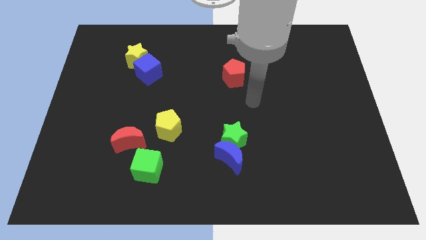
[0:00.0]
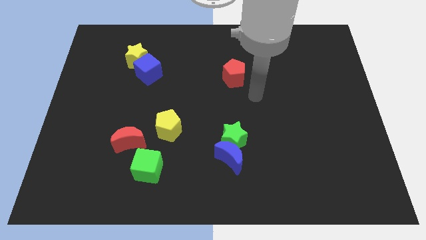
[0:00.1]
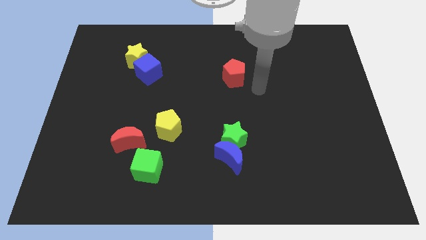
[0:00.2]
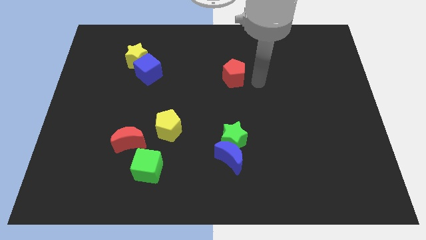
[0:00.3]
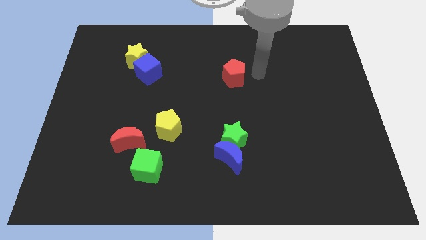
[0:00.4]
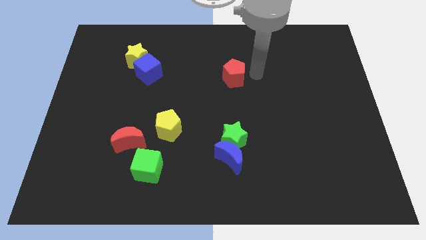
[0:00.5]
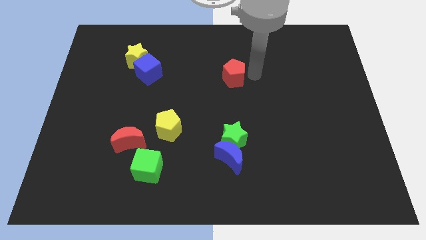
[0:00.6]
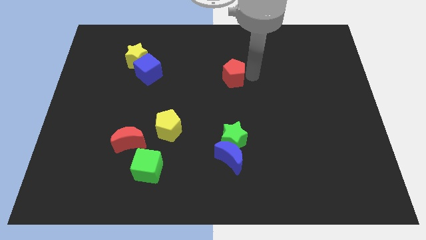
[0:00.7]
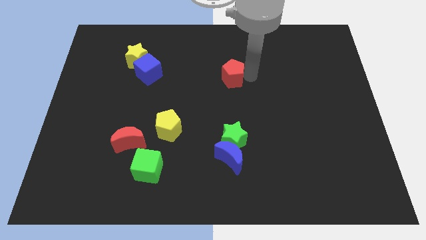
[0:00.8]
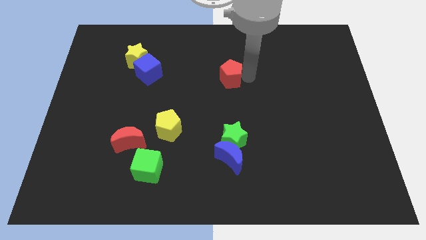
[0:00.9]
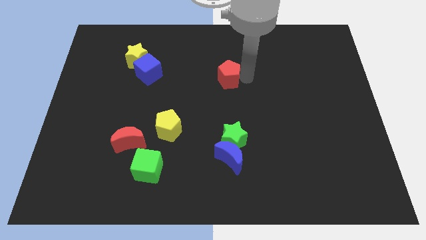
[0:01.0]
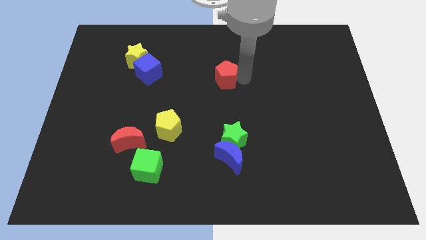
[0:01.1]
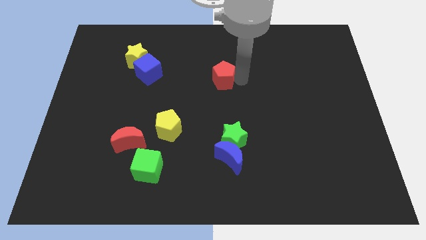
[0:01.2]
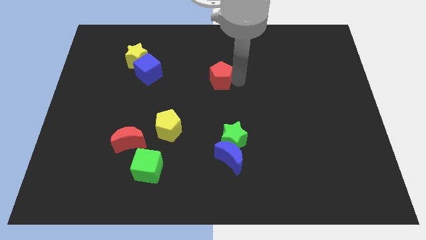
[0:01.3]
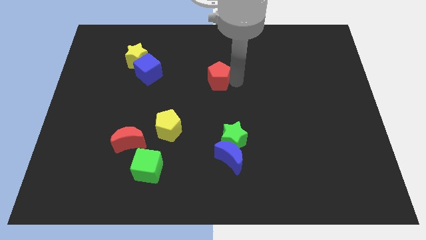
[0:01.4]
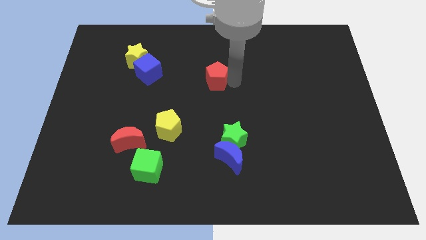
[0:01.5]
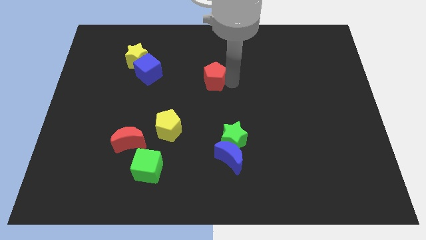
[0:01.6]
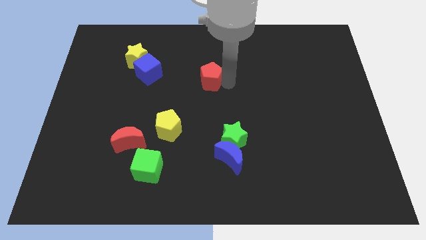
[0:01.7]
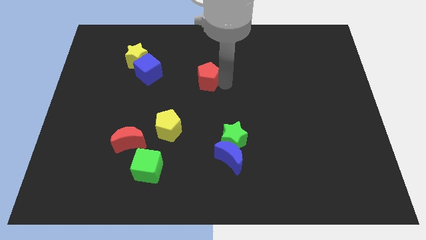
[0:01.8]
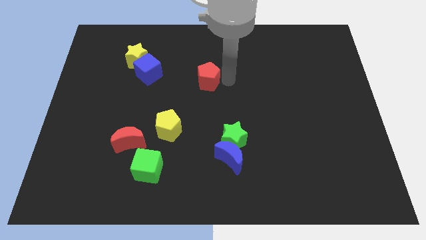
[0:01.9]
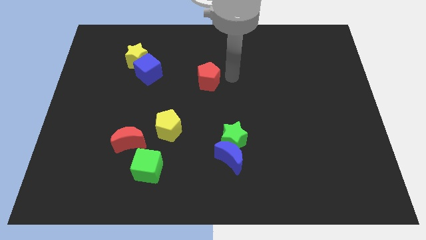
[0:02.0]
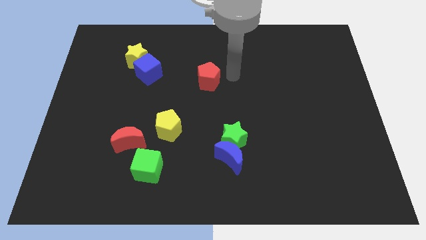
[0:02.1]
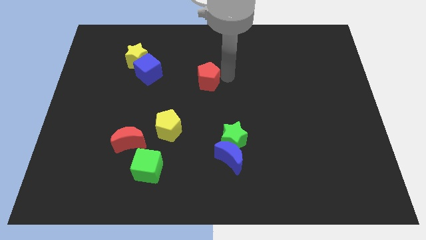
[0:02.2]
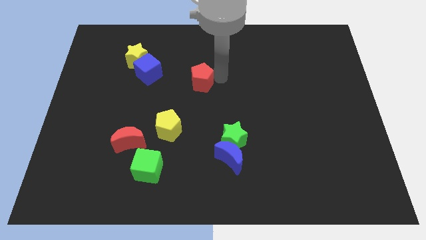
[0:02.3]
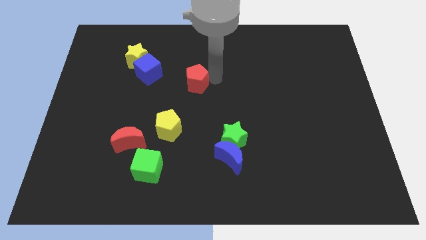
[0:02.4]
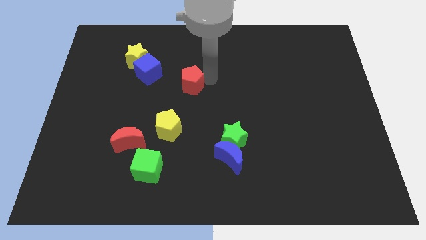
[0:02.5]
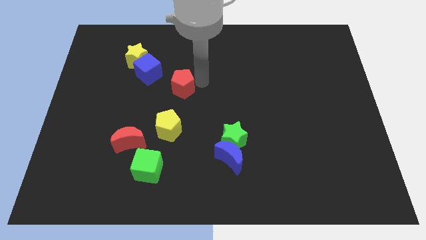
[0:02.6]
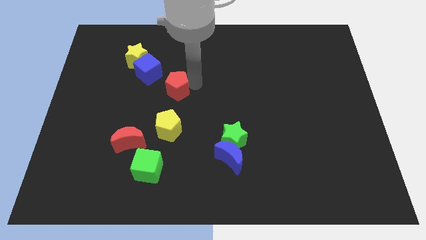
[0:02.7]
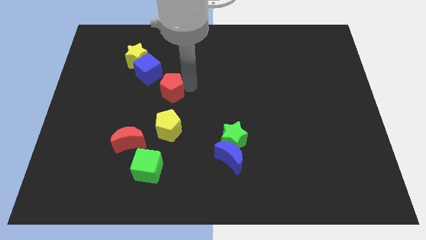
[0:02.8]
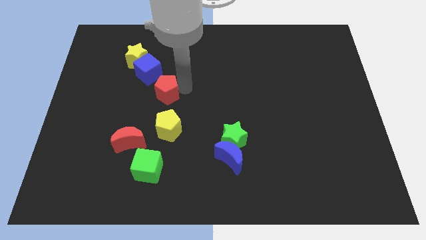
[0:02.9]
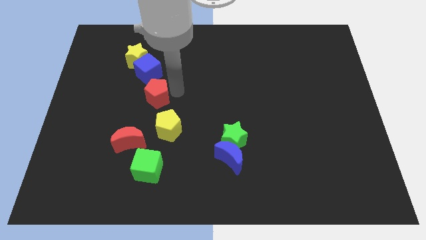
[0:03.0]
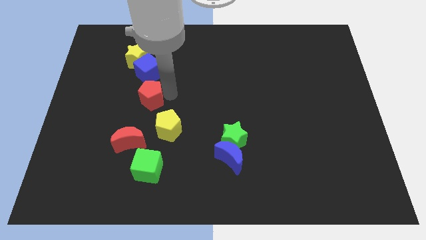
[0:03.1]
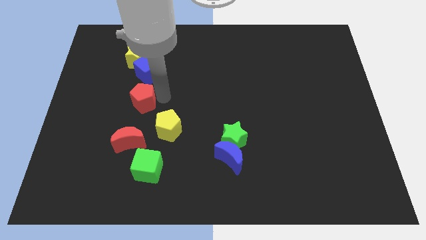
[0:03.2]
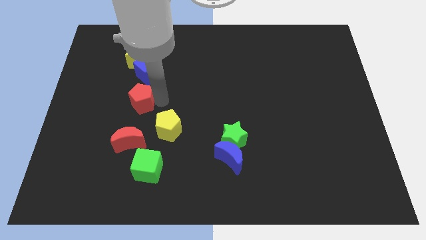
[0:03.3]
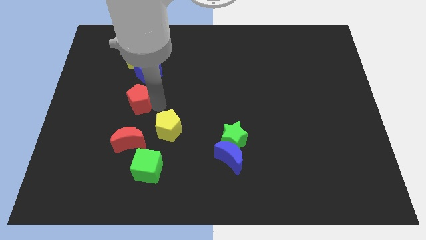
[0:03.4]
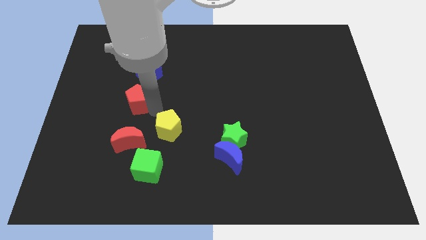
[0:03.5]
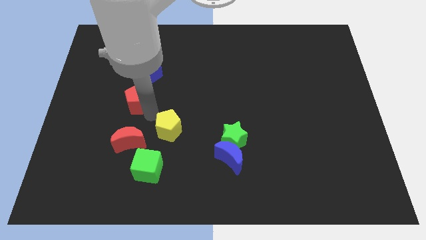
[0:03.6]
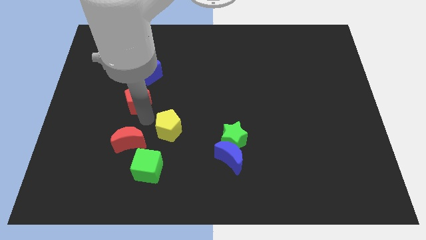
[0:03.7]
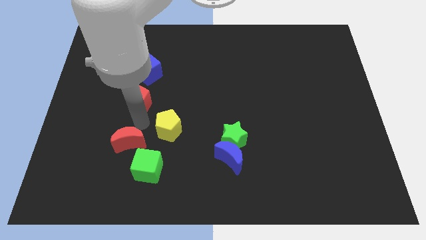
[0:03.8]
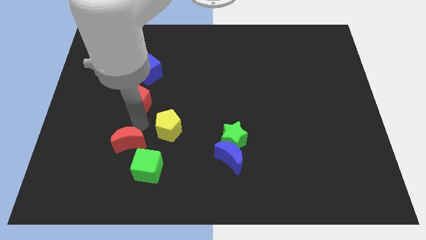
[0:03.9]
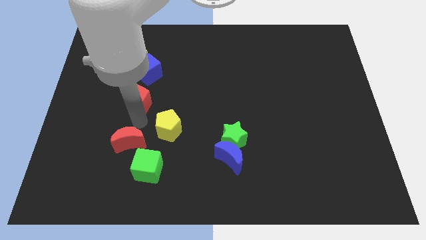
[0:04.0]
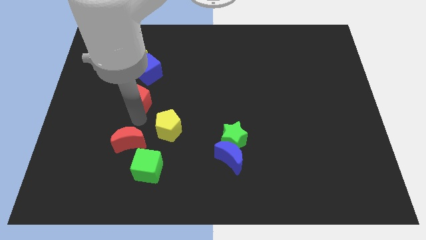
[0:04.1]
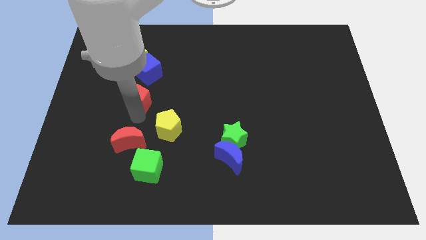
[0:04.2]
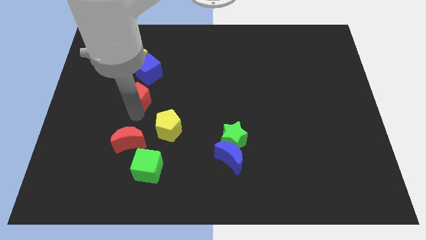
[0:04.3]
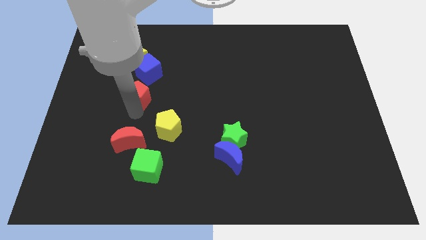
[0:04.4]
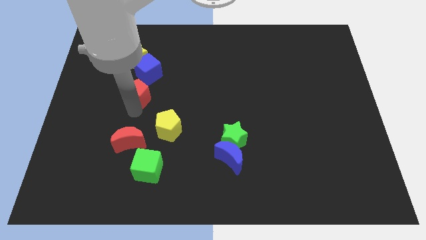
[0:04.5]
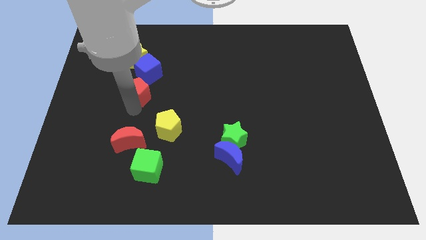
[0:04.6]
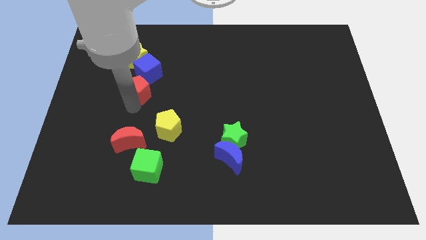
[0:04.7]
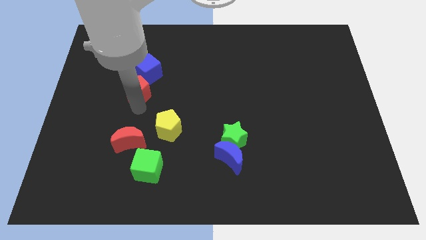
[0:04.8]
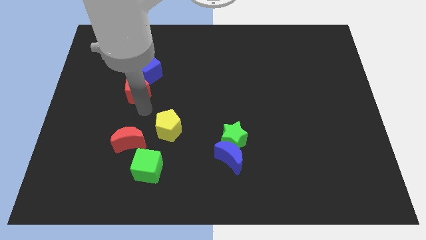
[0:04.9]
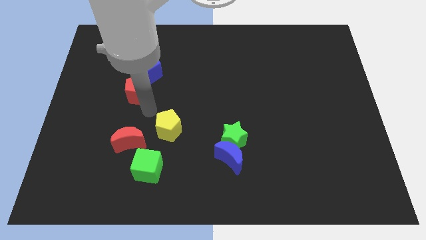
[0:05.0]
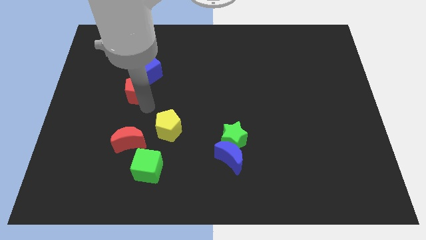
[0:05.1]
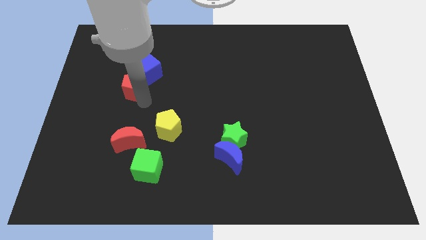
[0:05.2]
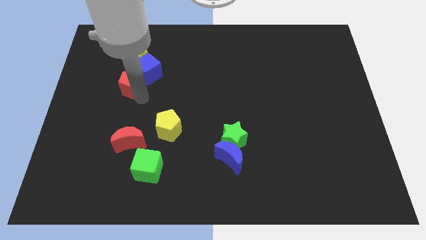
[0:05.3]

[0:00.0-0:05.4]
push the red pentagon left of the blue cube
